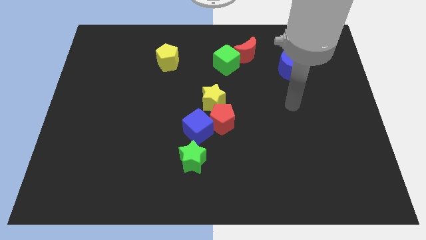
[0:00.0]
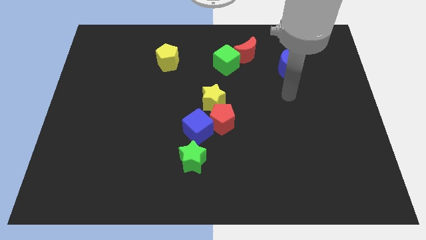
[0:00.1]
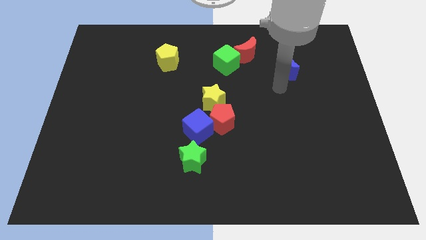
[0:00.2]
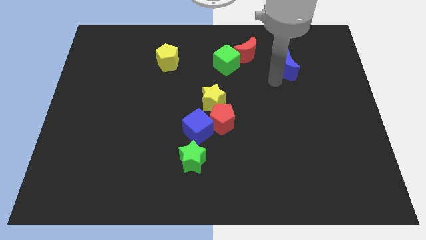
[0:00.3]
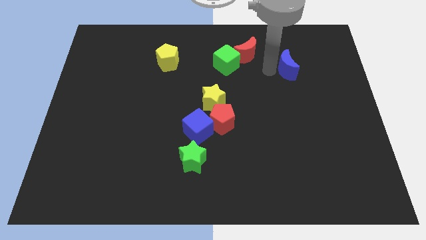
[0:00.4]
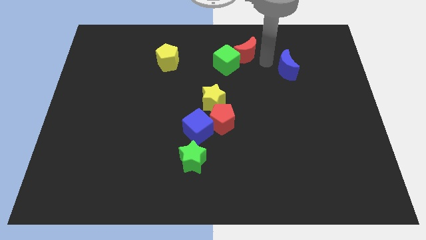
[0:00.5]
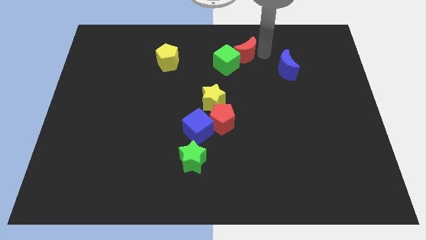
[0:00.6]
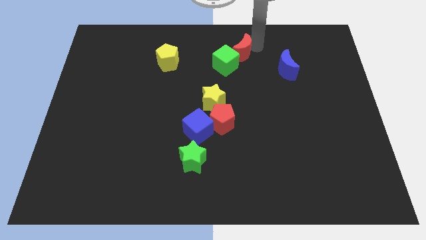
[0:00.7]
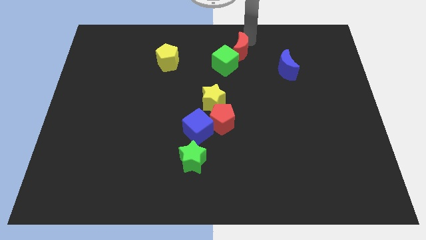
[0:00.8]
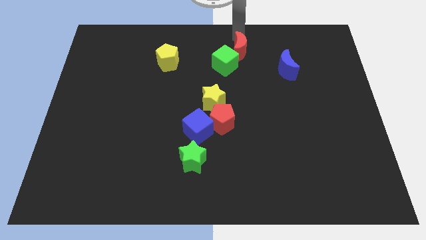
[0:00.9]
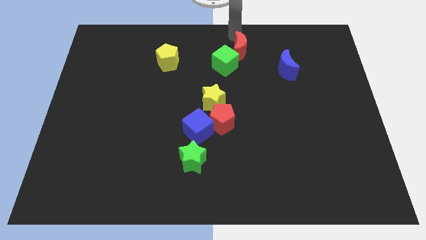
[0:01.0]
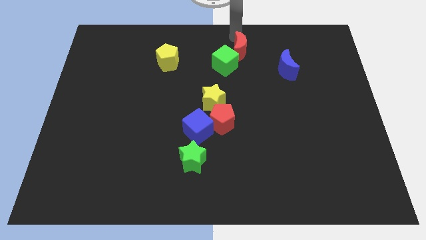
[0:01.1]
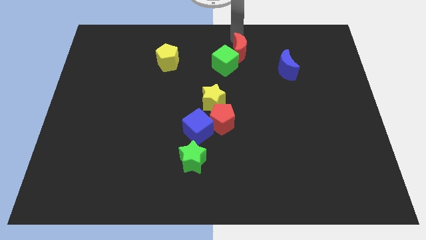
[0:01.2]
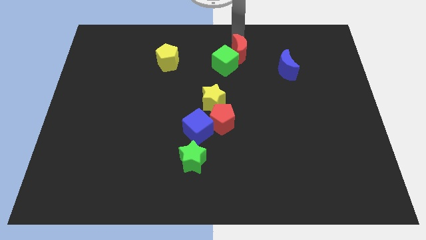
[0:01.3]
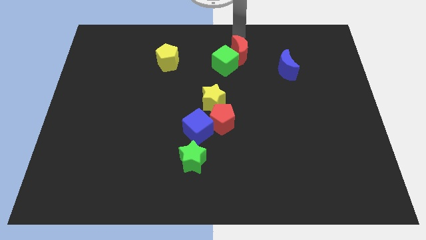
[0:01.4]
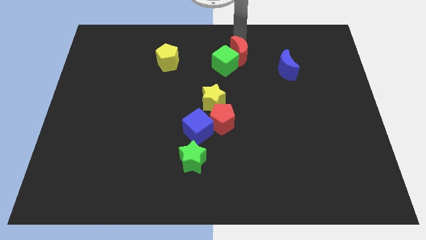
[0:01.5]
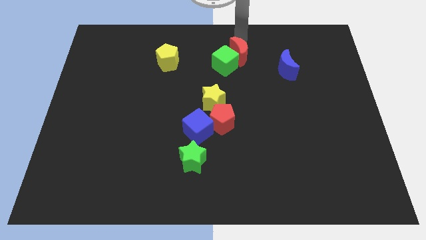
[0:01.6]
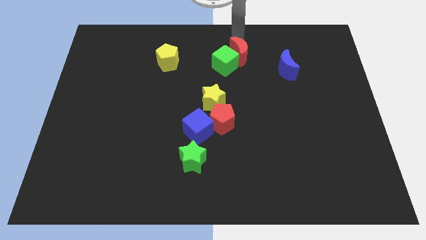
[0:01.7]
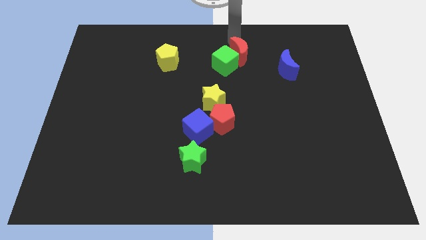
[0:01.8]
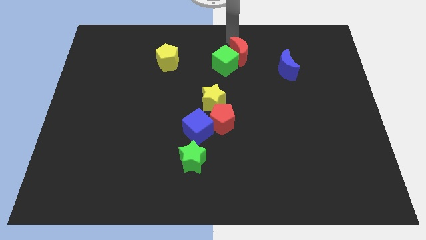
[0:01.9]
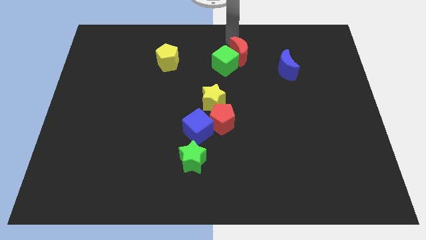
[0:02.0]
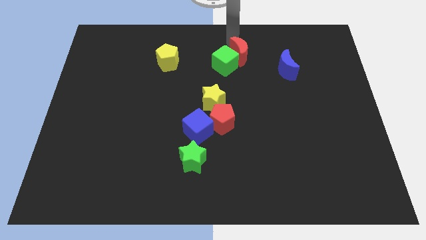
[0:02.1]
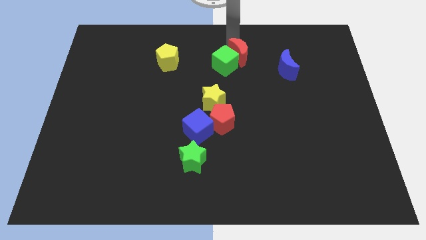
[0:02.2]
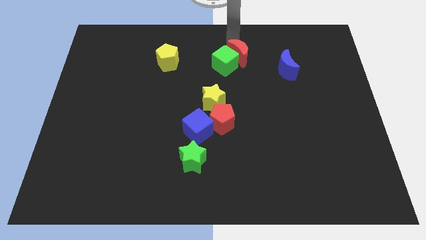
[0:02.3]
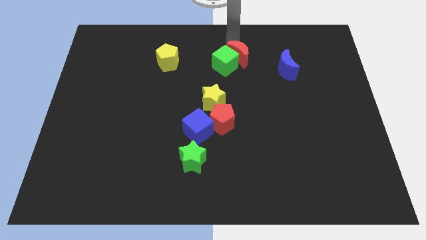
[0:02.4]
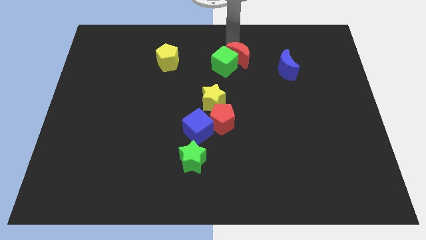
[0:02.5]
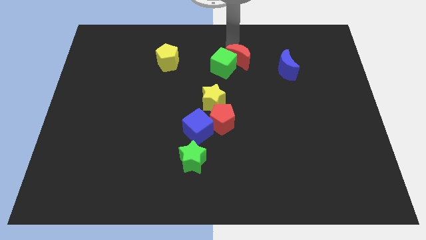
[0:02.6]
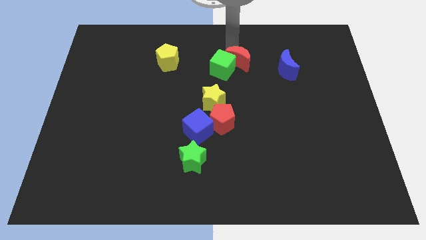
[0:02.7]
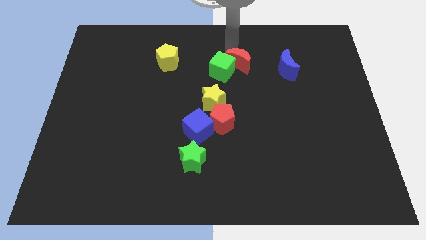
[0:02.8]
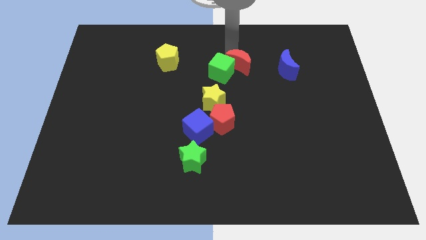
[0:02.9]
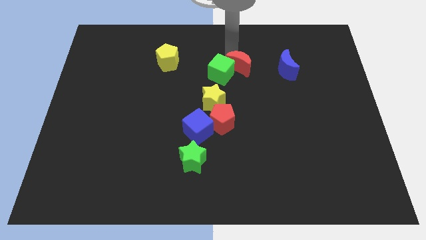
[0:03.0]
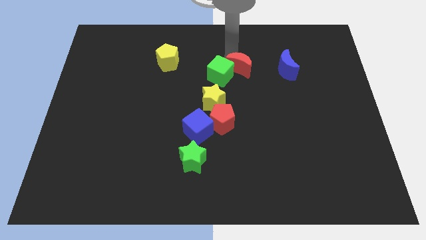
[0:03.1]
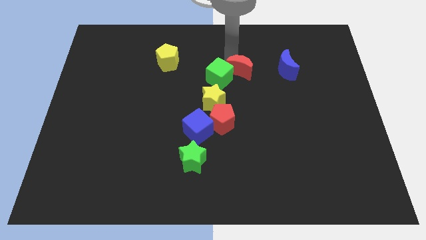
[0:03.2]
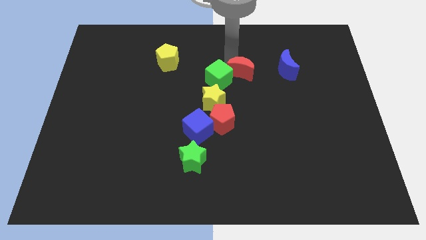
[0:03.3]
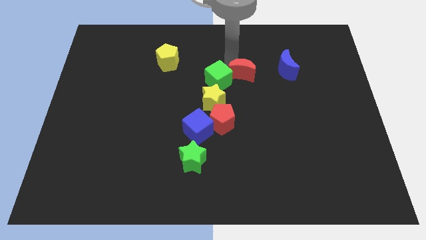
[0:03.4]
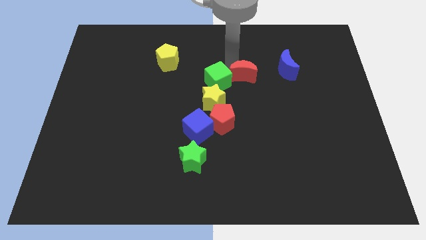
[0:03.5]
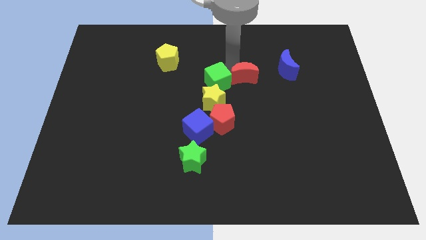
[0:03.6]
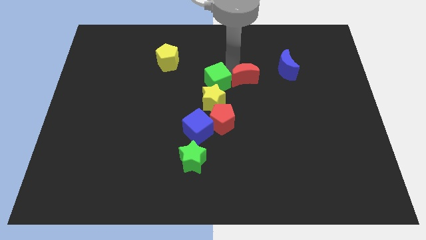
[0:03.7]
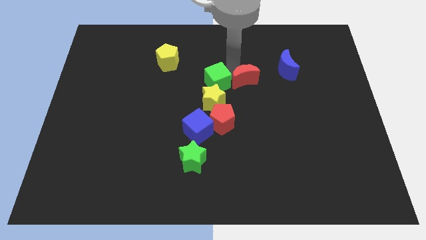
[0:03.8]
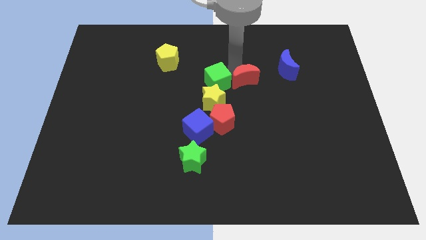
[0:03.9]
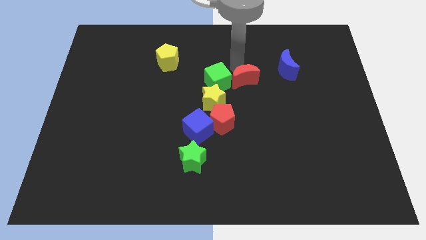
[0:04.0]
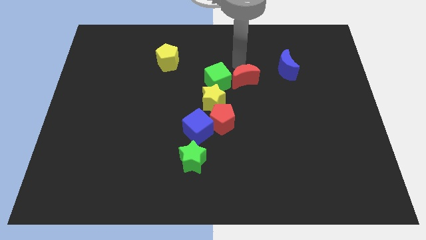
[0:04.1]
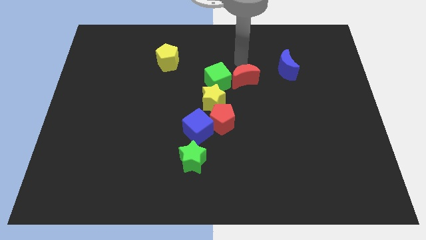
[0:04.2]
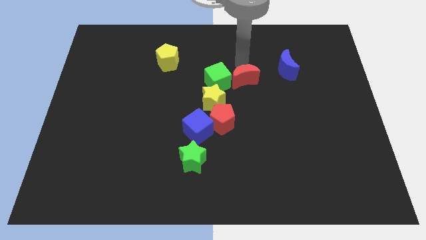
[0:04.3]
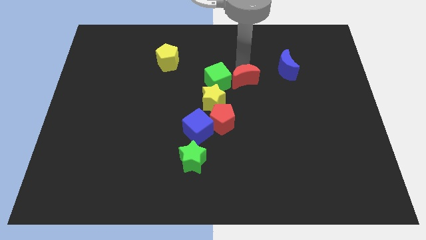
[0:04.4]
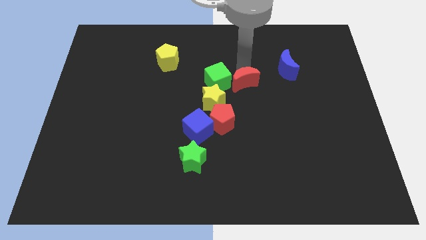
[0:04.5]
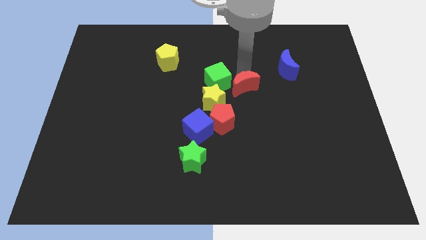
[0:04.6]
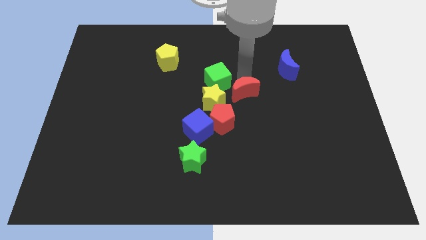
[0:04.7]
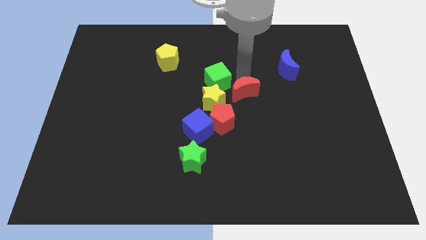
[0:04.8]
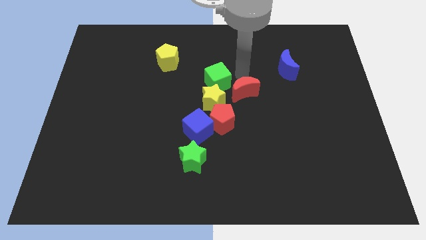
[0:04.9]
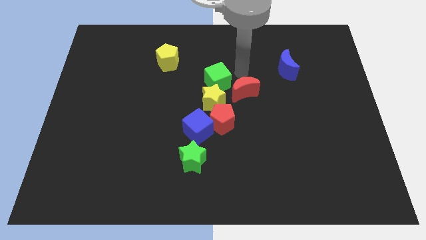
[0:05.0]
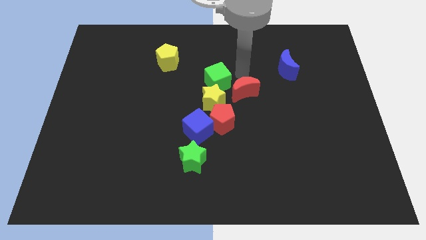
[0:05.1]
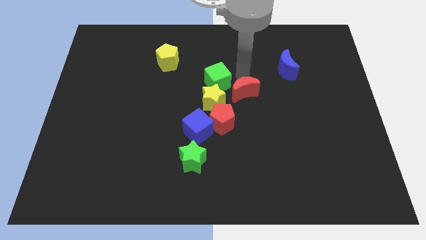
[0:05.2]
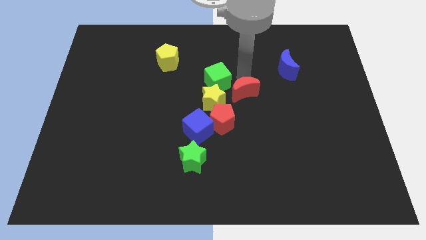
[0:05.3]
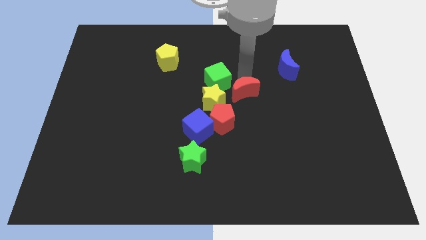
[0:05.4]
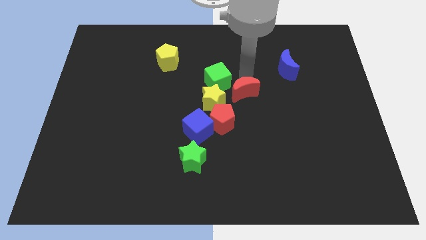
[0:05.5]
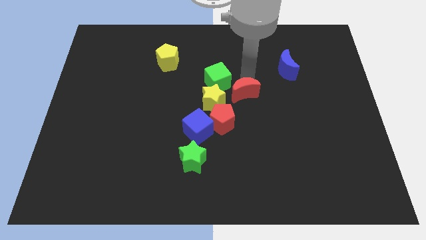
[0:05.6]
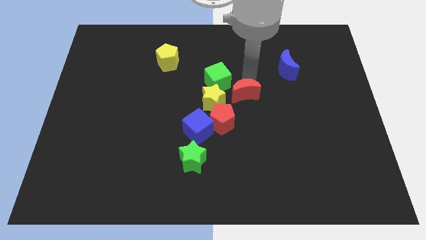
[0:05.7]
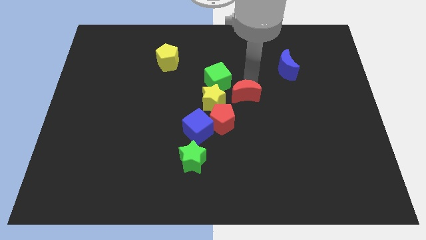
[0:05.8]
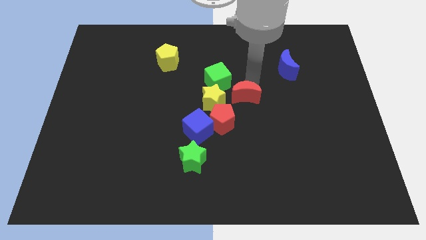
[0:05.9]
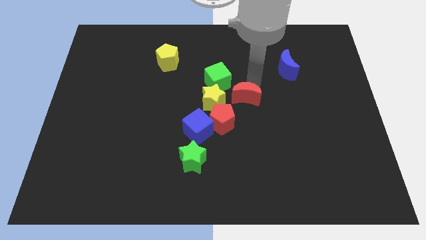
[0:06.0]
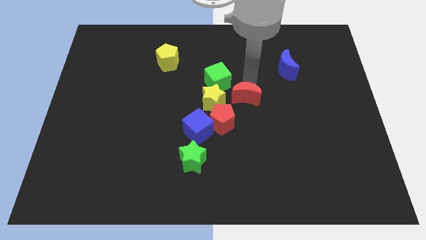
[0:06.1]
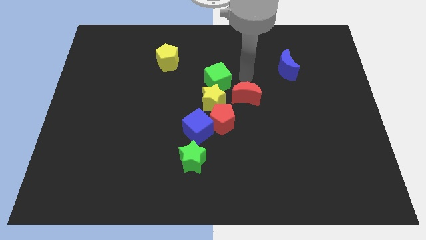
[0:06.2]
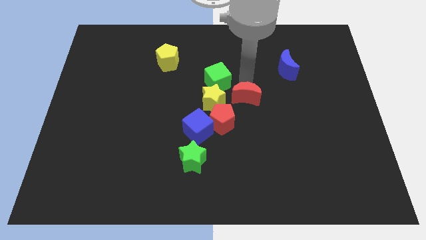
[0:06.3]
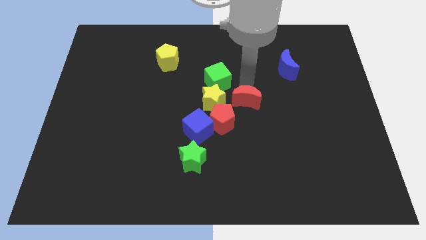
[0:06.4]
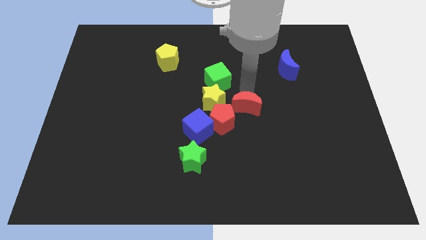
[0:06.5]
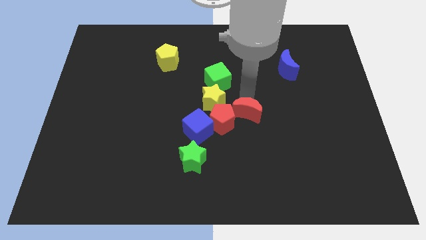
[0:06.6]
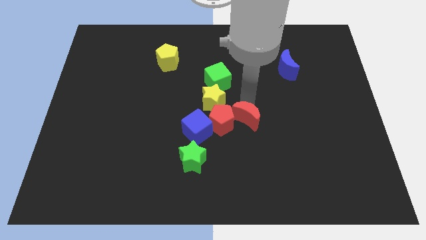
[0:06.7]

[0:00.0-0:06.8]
push the red moon downwards

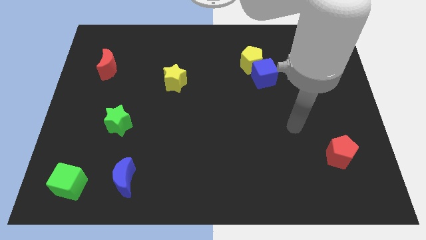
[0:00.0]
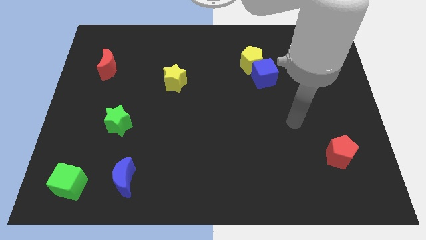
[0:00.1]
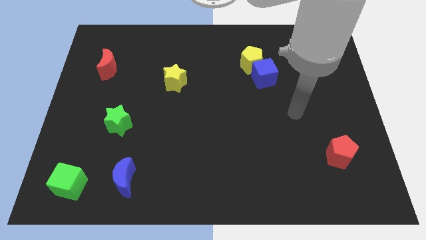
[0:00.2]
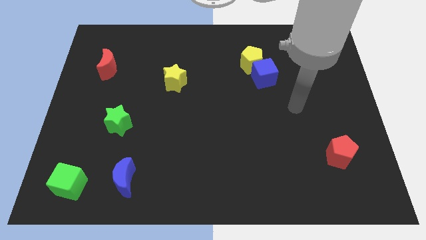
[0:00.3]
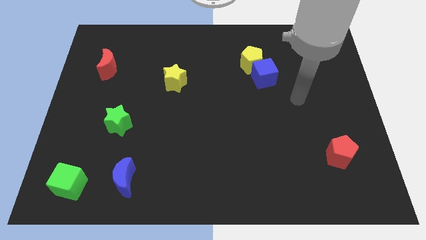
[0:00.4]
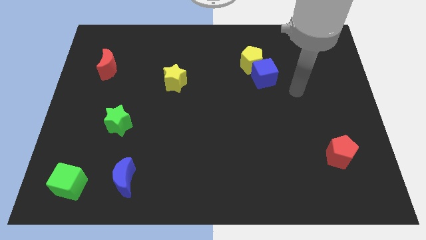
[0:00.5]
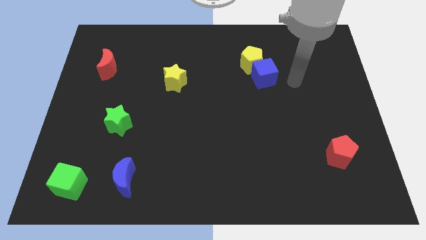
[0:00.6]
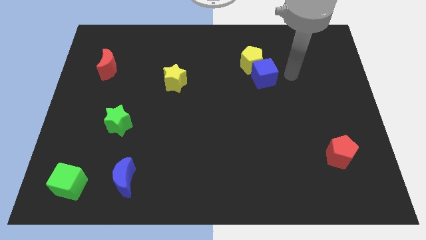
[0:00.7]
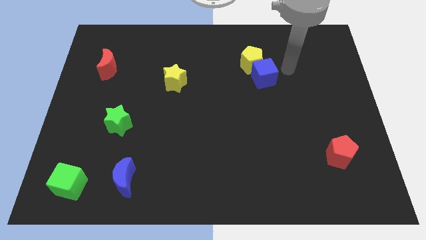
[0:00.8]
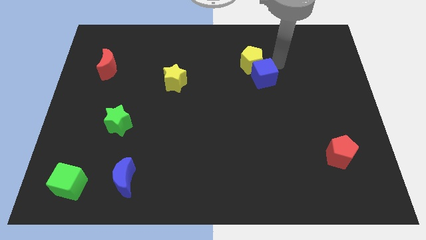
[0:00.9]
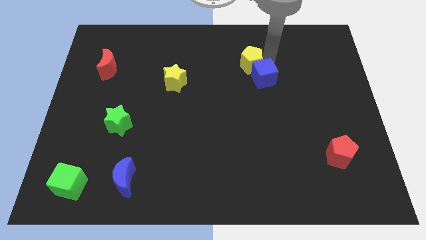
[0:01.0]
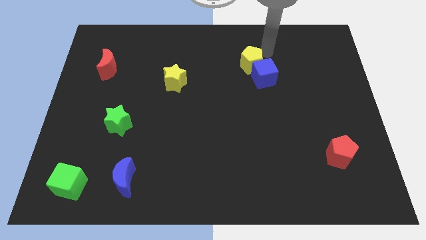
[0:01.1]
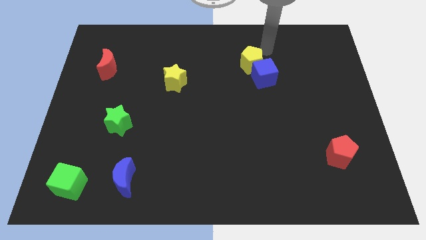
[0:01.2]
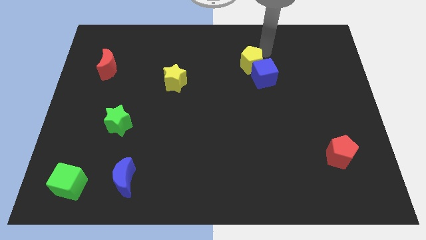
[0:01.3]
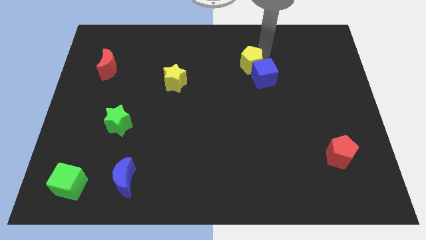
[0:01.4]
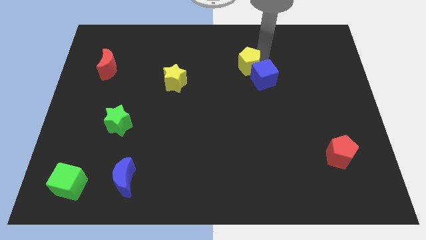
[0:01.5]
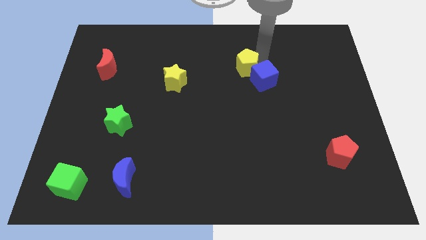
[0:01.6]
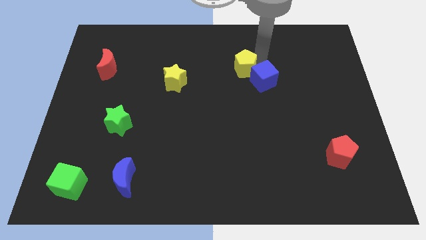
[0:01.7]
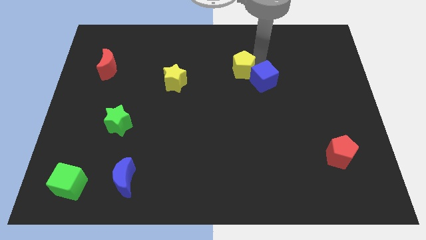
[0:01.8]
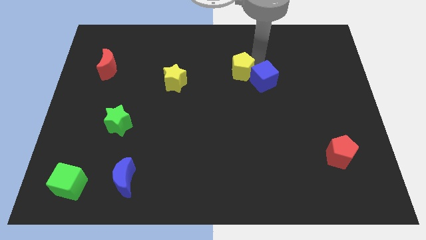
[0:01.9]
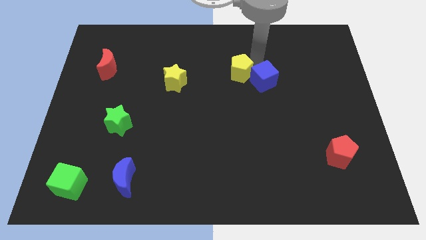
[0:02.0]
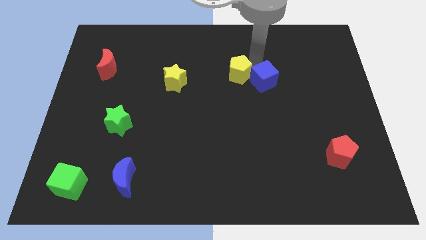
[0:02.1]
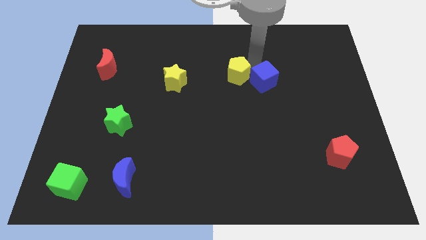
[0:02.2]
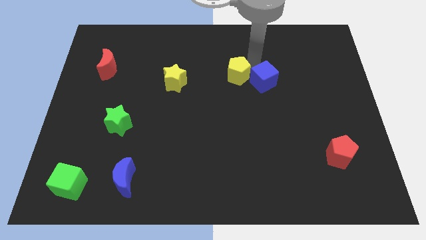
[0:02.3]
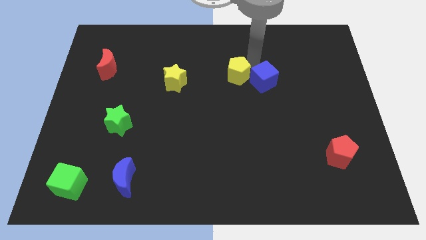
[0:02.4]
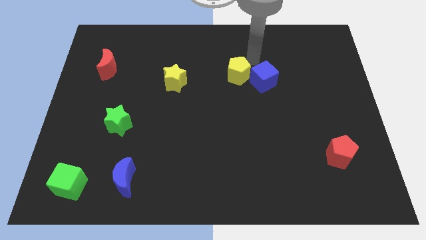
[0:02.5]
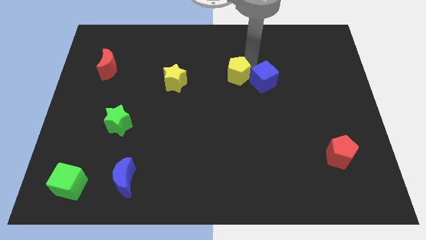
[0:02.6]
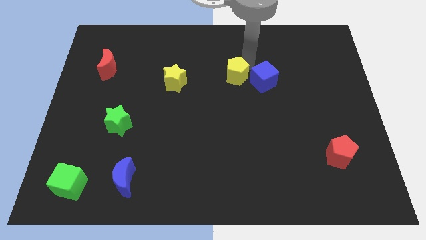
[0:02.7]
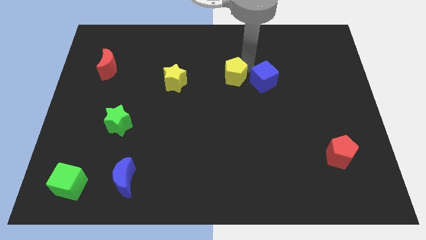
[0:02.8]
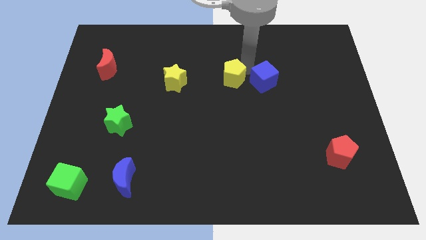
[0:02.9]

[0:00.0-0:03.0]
slightly push the yellow pentagon downwards and to the left
